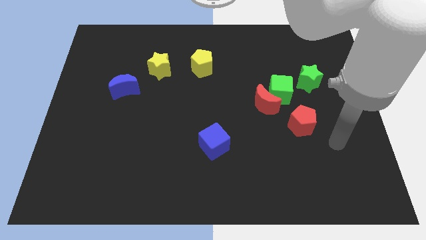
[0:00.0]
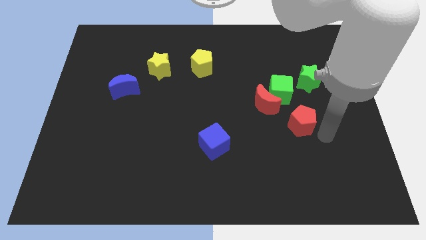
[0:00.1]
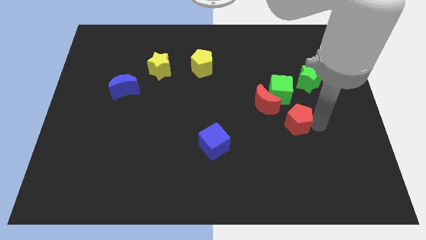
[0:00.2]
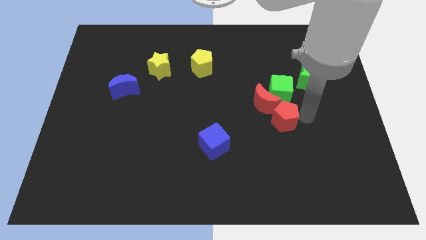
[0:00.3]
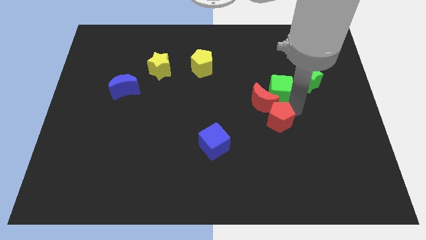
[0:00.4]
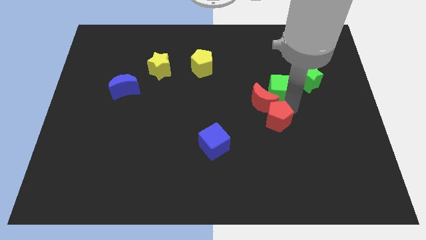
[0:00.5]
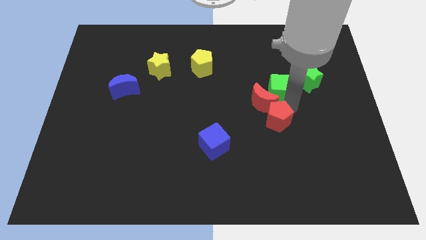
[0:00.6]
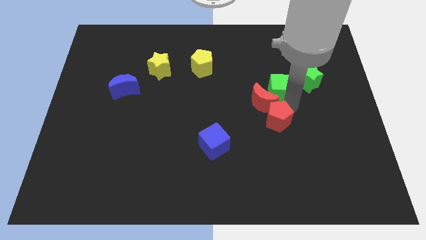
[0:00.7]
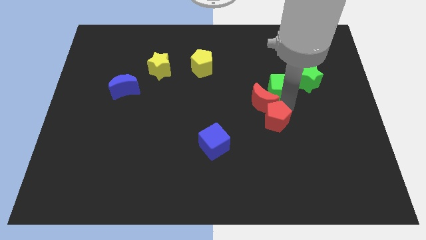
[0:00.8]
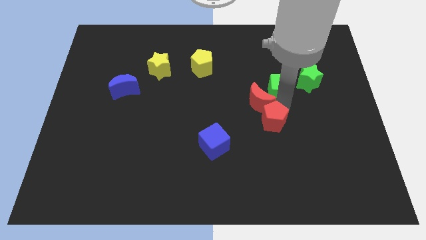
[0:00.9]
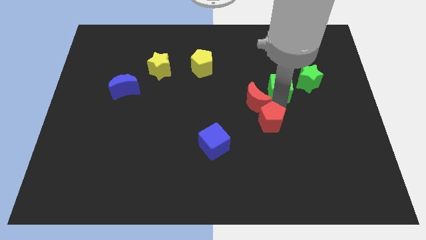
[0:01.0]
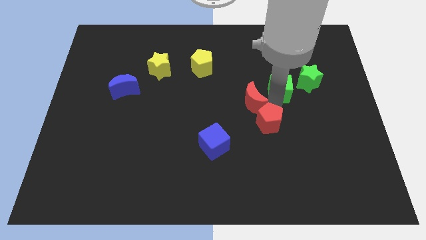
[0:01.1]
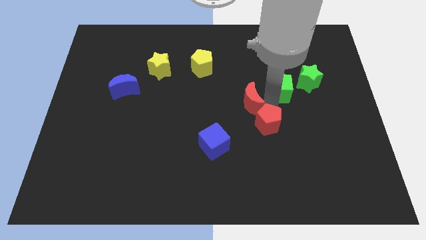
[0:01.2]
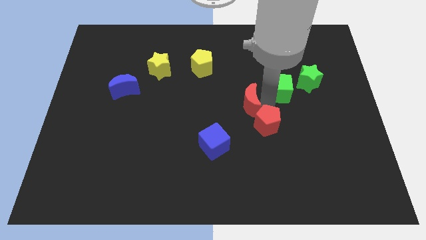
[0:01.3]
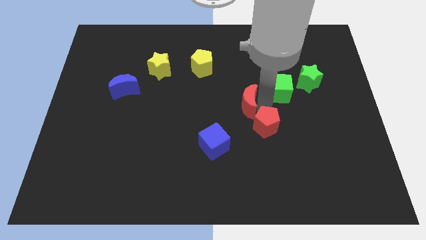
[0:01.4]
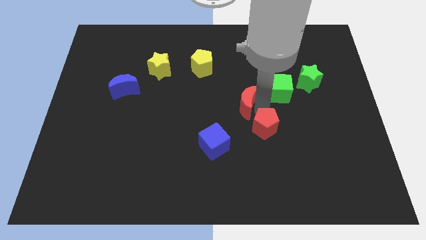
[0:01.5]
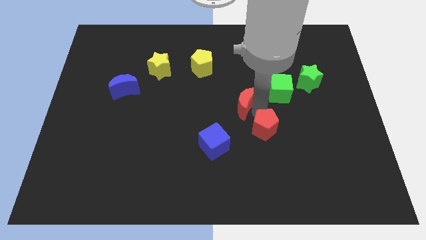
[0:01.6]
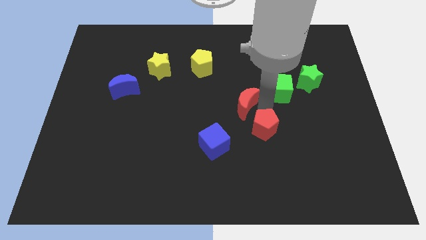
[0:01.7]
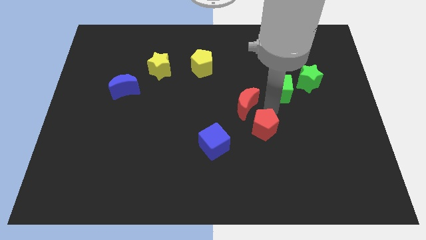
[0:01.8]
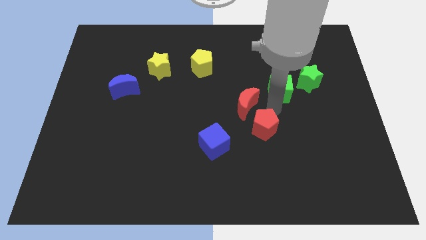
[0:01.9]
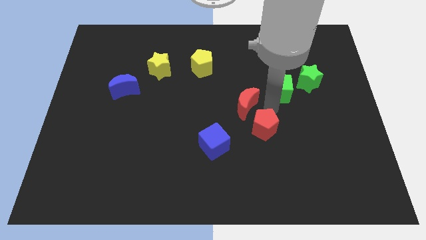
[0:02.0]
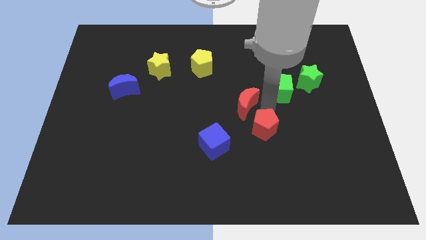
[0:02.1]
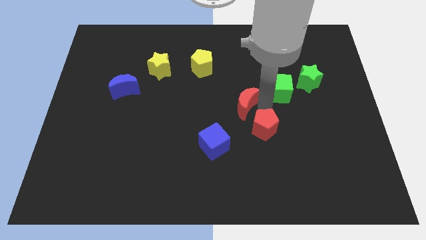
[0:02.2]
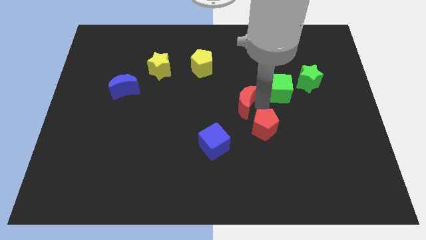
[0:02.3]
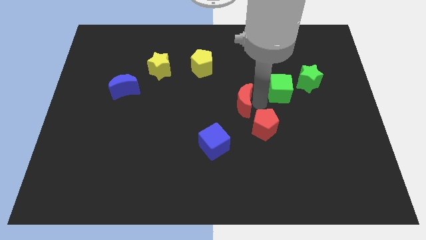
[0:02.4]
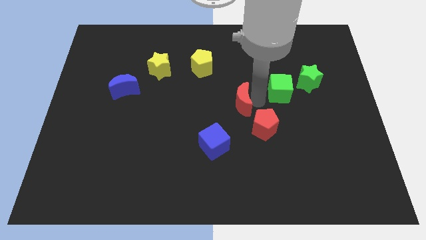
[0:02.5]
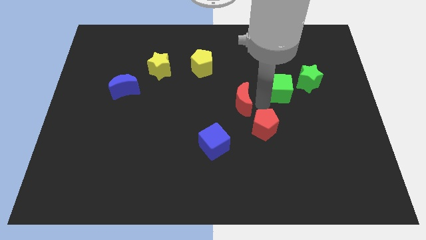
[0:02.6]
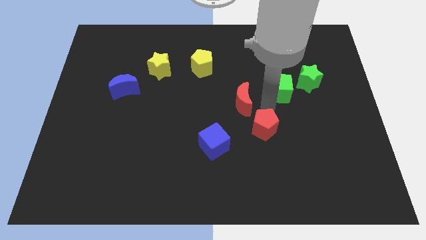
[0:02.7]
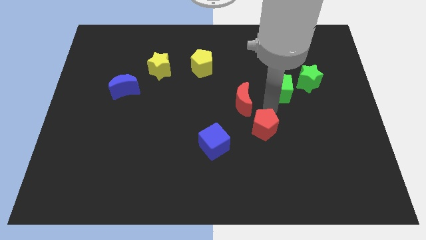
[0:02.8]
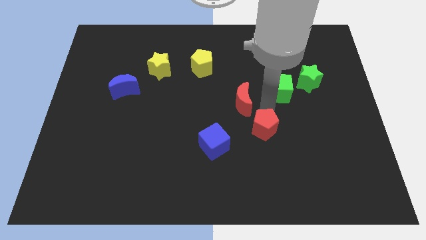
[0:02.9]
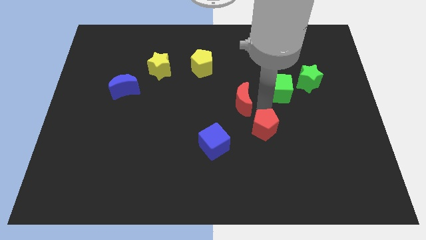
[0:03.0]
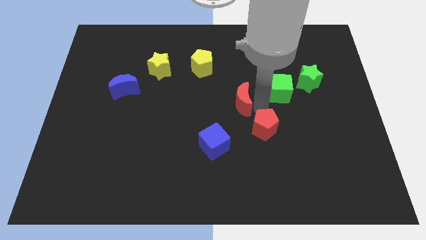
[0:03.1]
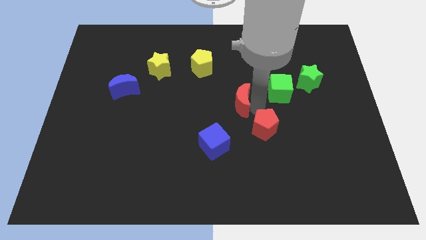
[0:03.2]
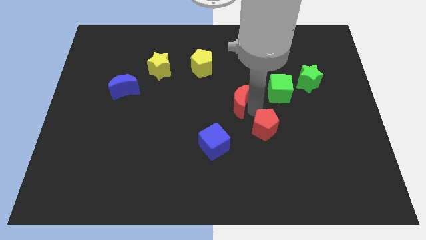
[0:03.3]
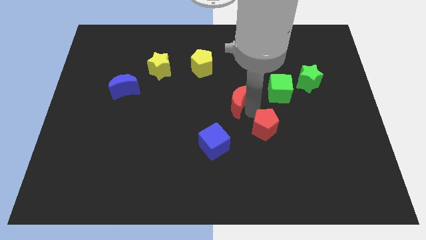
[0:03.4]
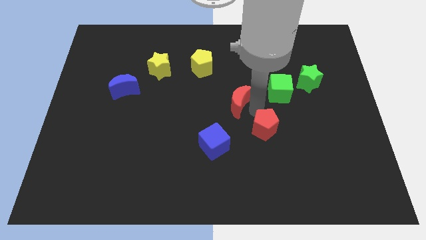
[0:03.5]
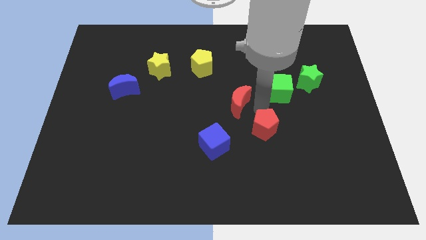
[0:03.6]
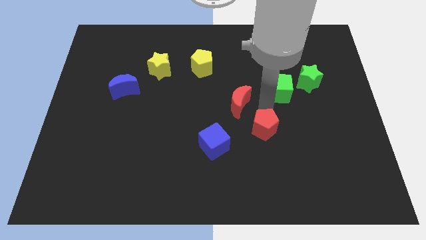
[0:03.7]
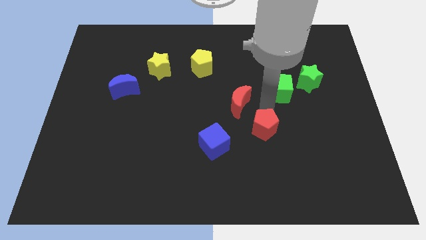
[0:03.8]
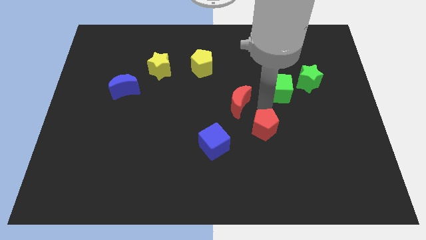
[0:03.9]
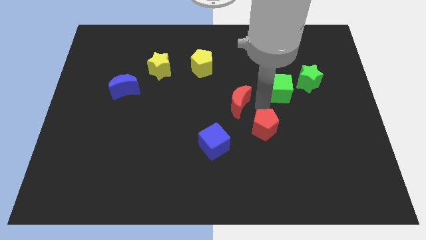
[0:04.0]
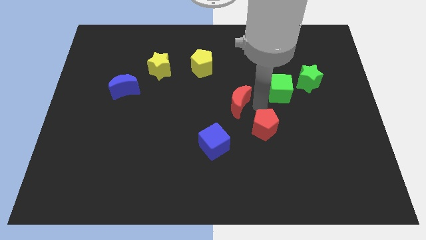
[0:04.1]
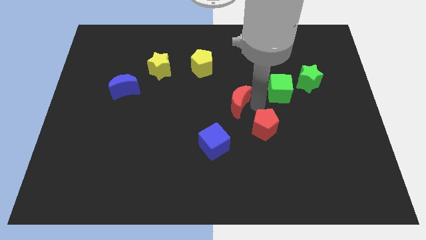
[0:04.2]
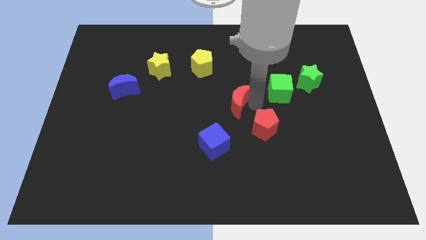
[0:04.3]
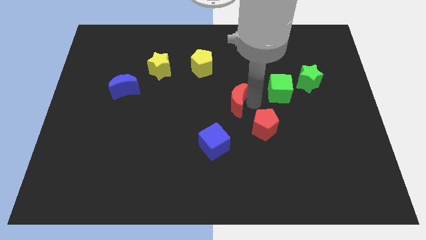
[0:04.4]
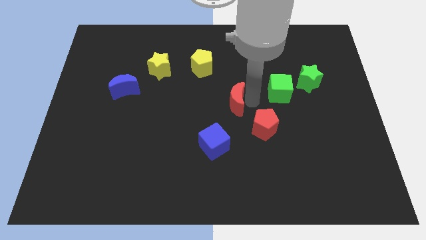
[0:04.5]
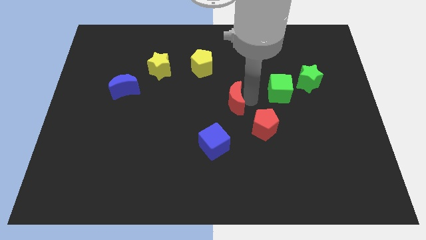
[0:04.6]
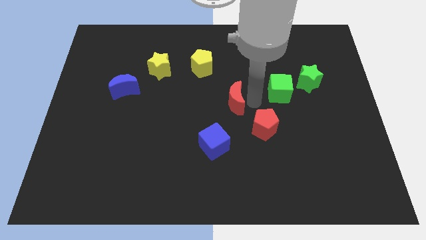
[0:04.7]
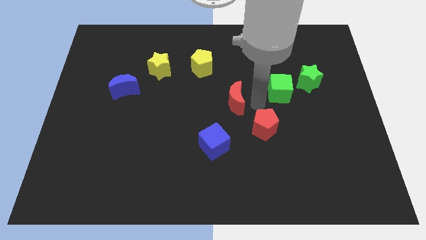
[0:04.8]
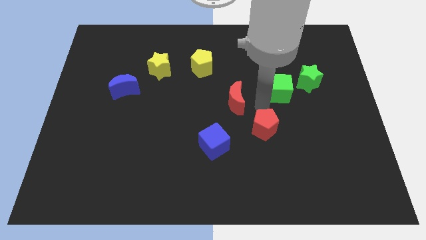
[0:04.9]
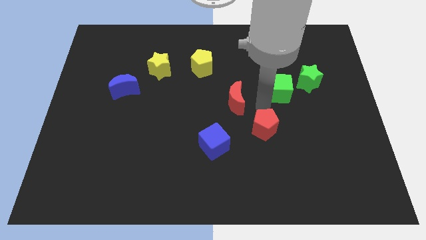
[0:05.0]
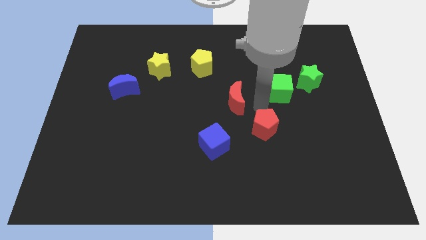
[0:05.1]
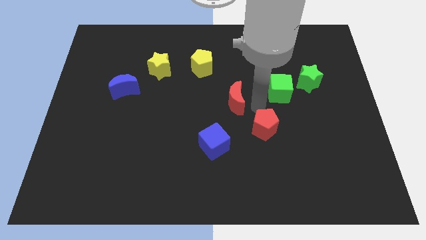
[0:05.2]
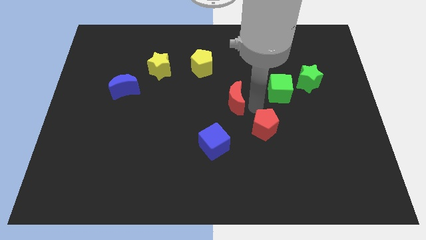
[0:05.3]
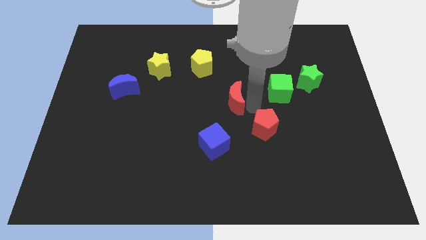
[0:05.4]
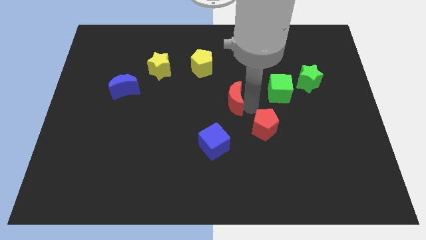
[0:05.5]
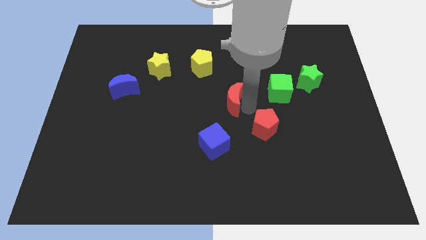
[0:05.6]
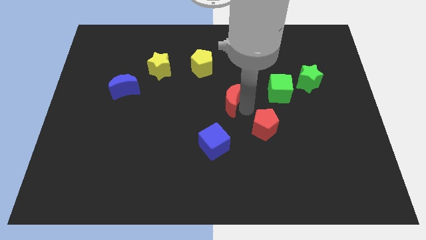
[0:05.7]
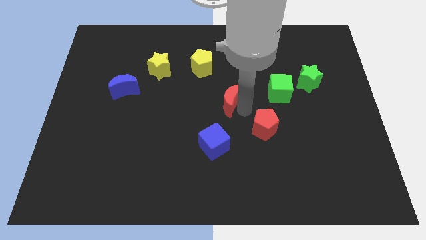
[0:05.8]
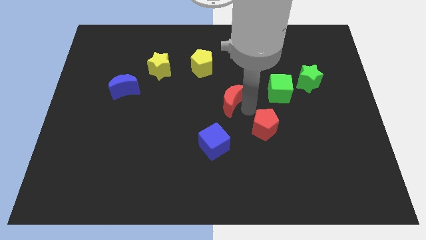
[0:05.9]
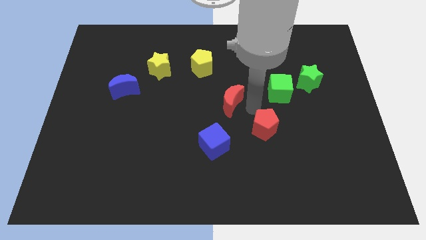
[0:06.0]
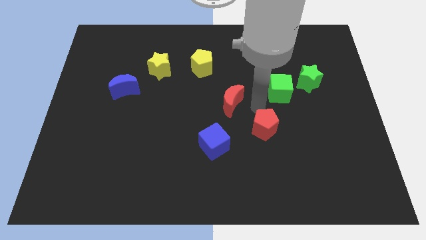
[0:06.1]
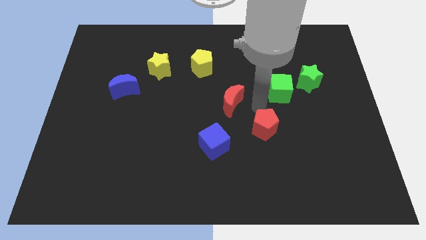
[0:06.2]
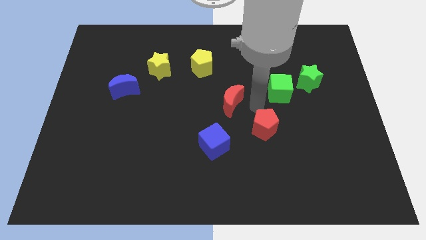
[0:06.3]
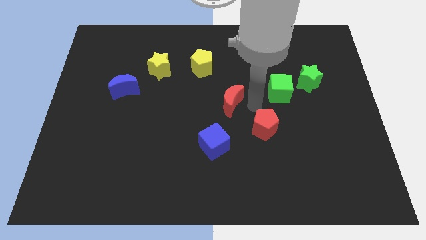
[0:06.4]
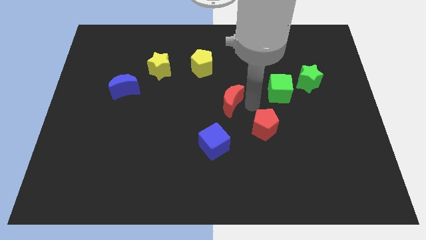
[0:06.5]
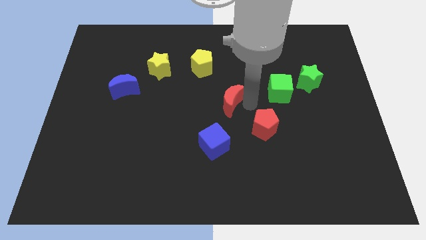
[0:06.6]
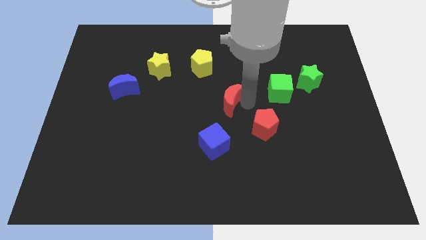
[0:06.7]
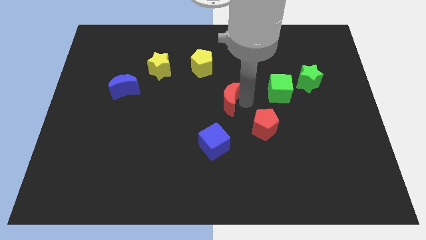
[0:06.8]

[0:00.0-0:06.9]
pull the red moon apart from the green cube and red pentagon

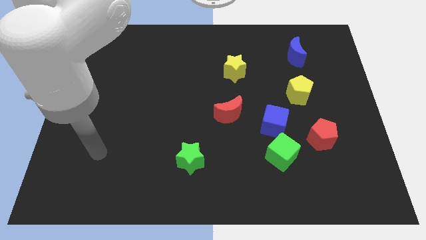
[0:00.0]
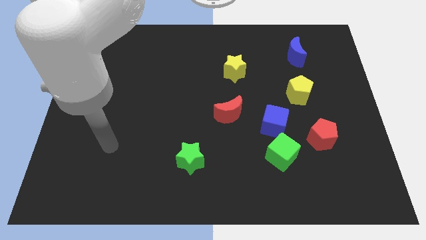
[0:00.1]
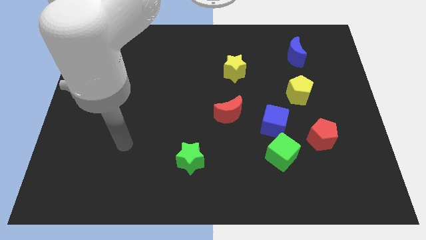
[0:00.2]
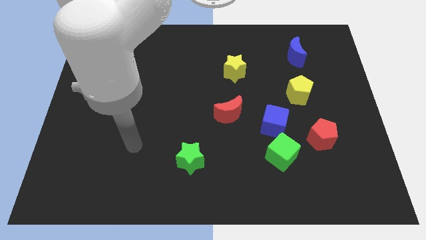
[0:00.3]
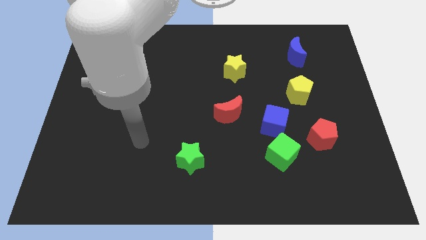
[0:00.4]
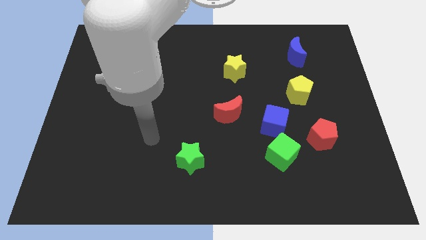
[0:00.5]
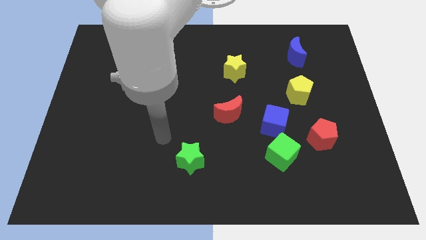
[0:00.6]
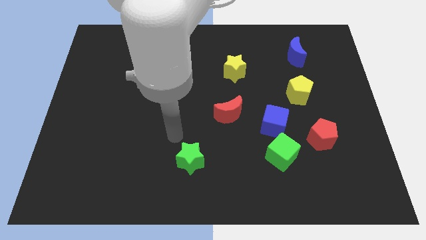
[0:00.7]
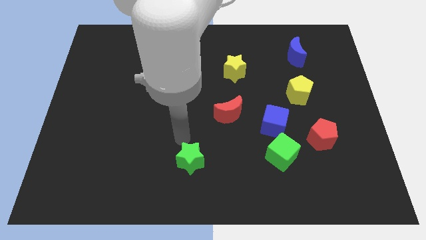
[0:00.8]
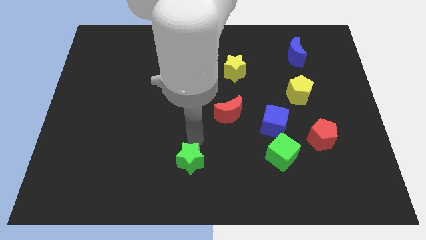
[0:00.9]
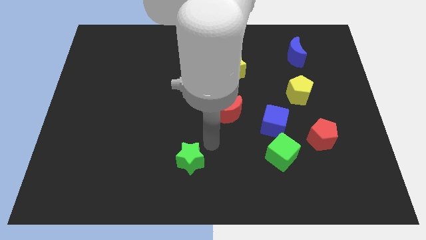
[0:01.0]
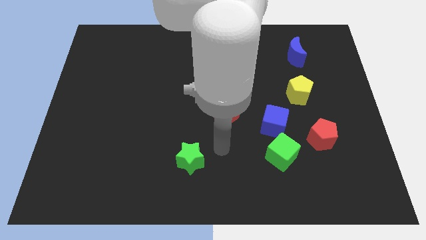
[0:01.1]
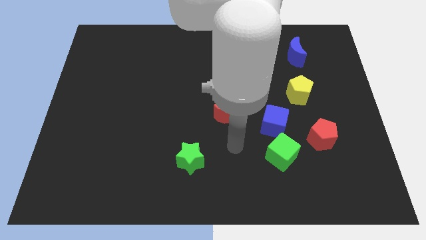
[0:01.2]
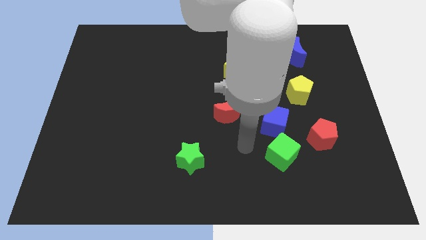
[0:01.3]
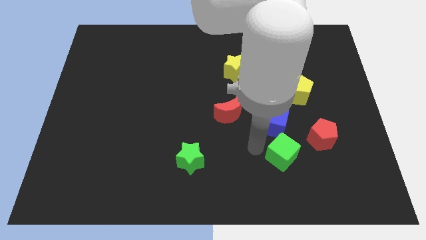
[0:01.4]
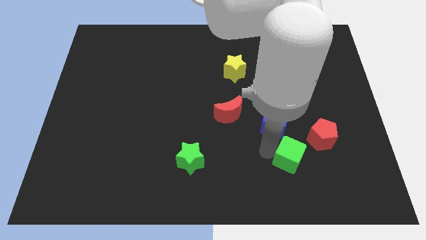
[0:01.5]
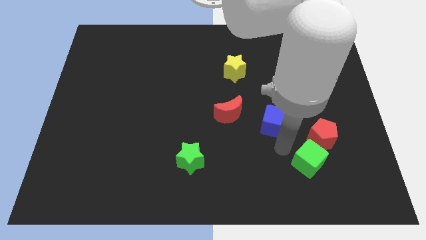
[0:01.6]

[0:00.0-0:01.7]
pull the blue cube apart from the green cube

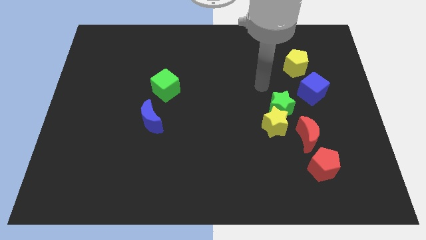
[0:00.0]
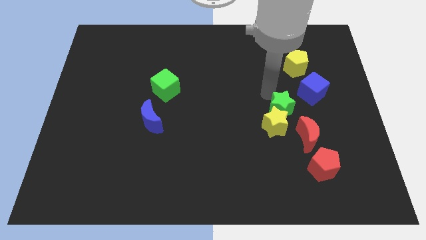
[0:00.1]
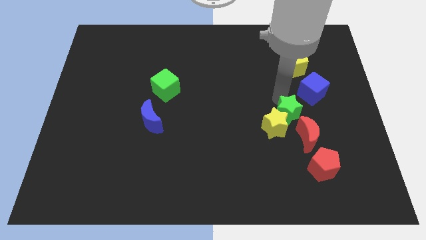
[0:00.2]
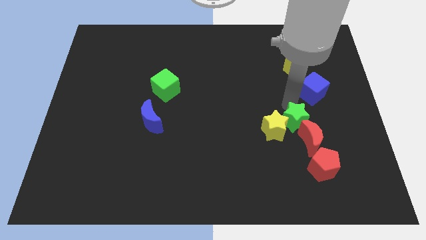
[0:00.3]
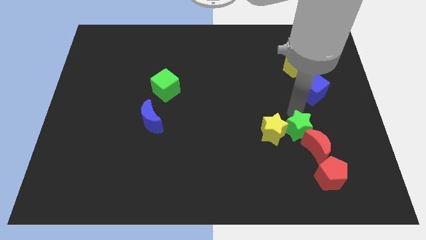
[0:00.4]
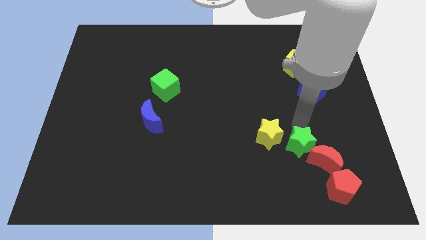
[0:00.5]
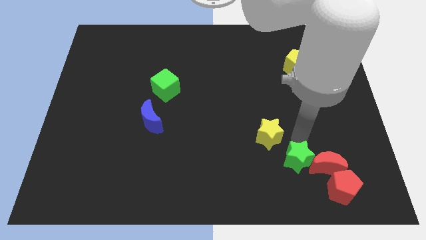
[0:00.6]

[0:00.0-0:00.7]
pull the yellow star apart from the green star and red moon
